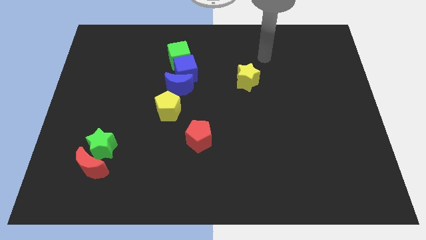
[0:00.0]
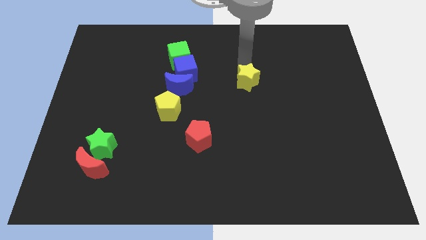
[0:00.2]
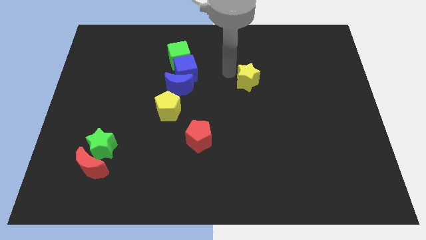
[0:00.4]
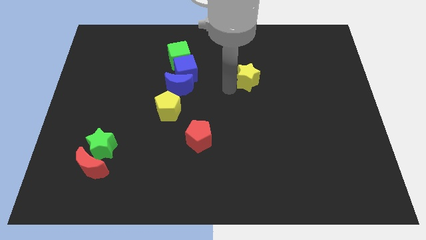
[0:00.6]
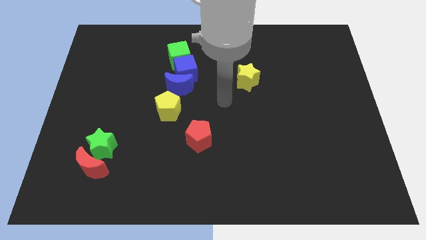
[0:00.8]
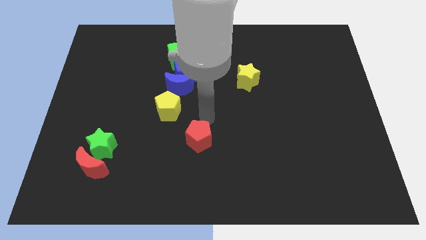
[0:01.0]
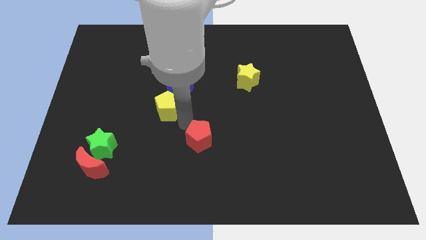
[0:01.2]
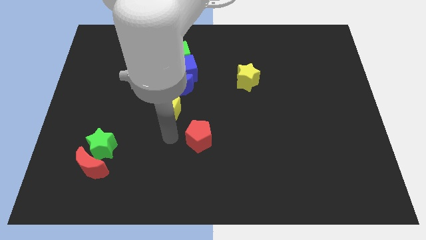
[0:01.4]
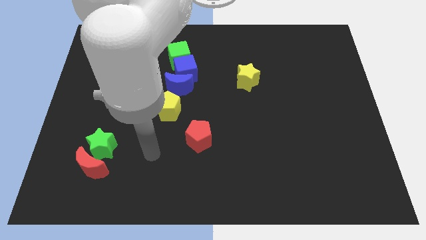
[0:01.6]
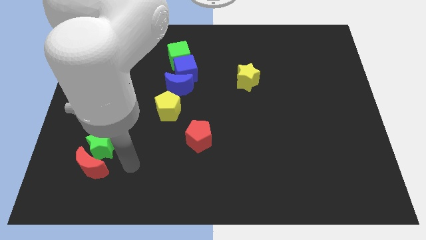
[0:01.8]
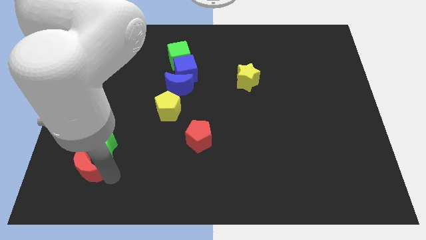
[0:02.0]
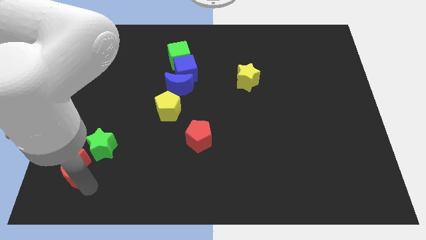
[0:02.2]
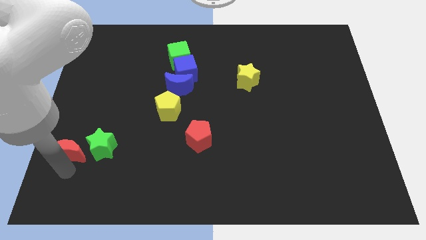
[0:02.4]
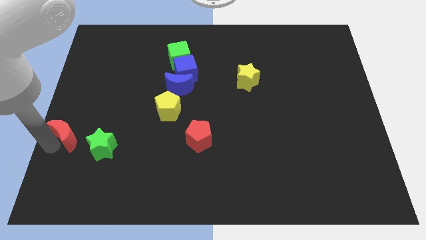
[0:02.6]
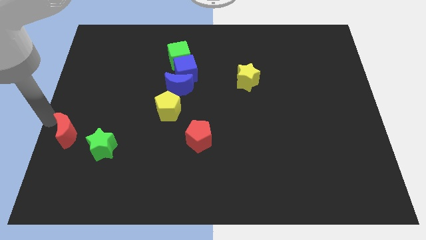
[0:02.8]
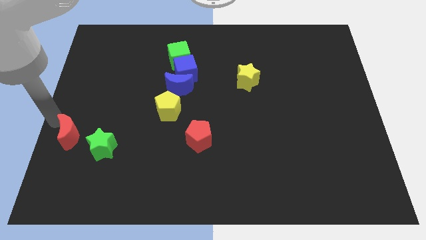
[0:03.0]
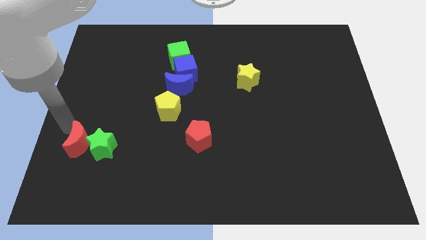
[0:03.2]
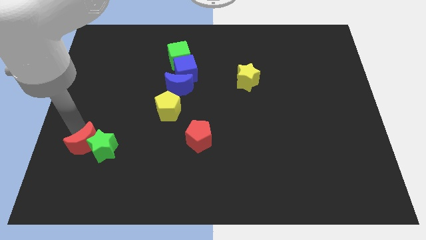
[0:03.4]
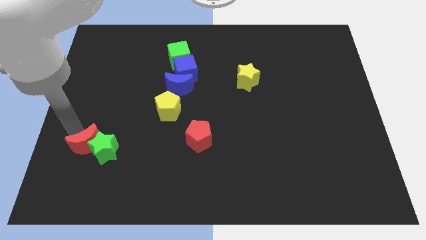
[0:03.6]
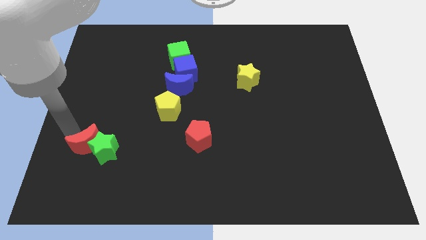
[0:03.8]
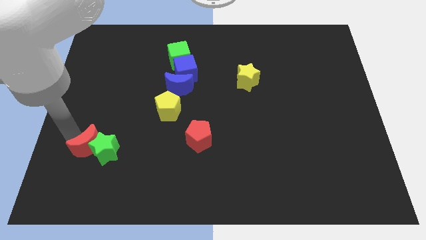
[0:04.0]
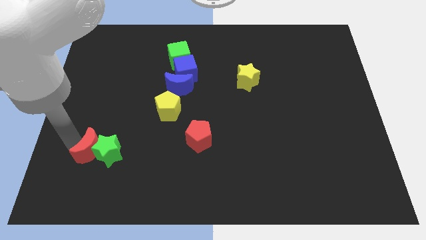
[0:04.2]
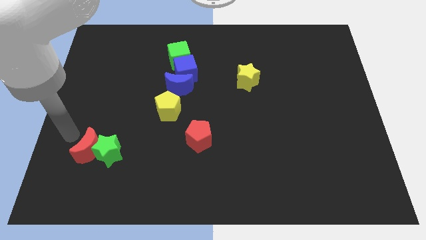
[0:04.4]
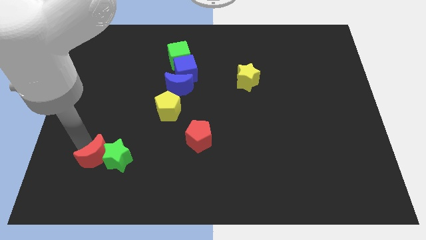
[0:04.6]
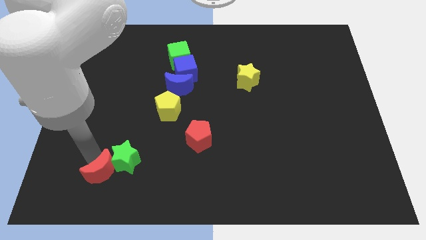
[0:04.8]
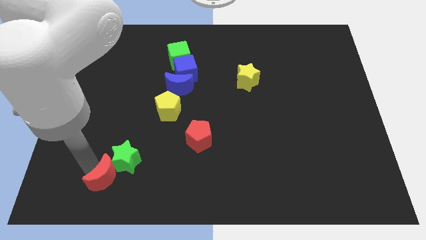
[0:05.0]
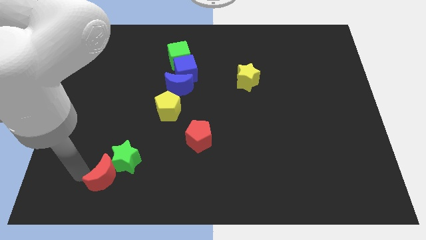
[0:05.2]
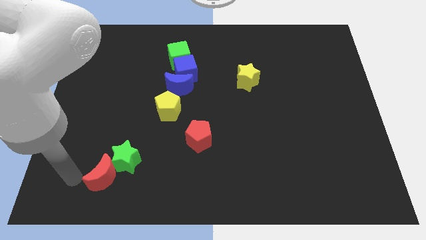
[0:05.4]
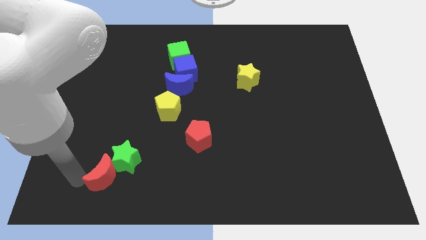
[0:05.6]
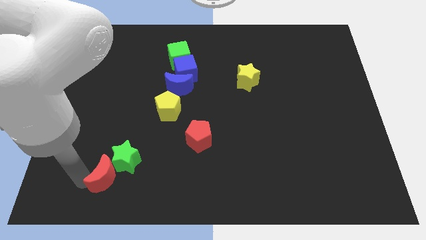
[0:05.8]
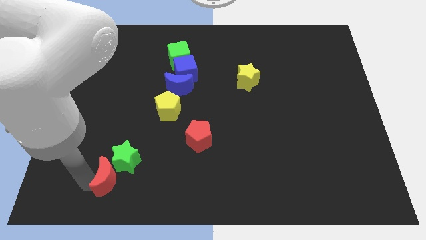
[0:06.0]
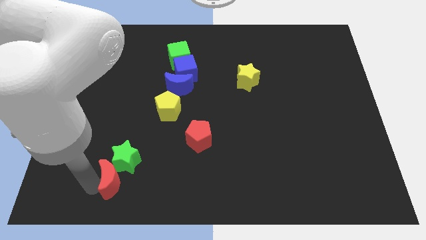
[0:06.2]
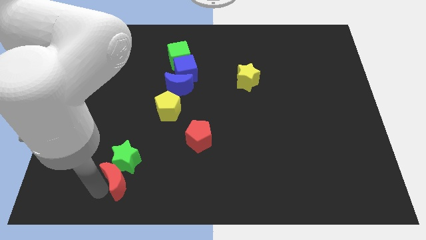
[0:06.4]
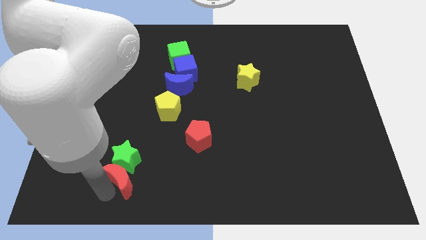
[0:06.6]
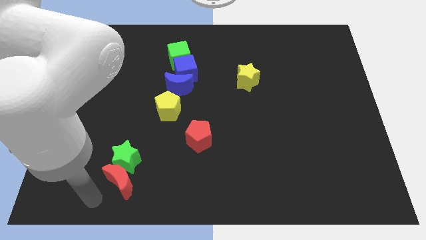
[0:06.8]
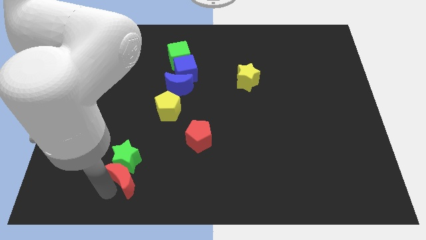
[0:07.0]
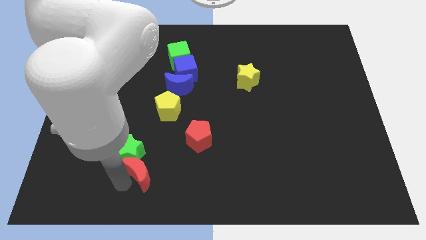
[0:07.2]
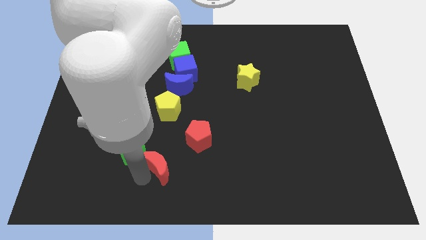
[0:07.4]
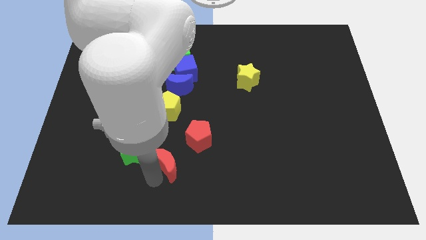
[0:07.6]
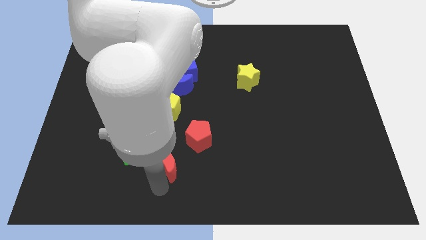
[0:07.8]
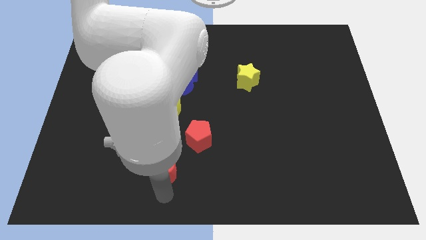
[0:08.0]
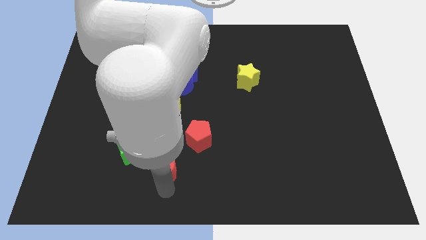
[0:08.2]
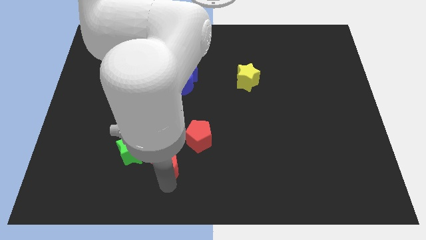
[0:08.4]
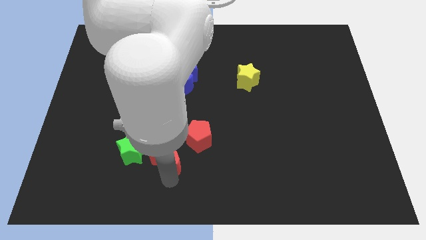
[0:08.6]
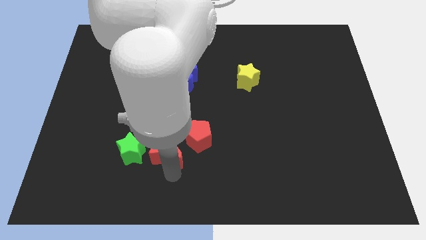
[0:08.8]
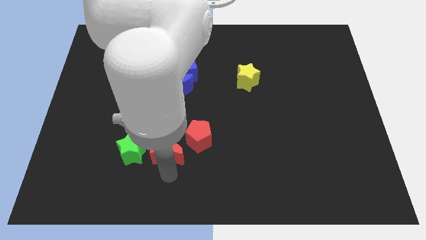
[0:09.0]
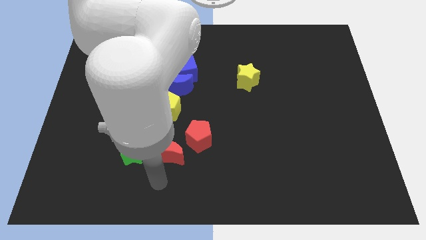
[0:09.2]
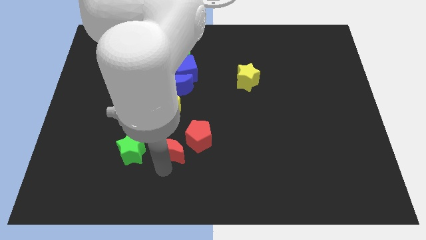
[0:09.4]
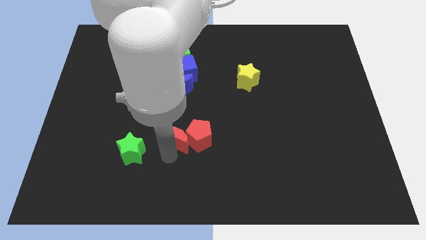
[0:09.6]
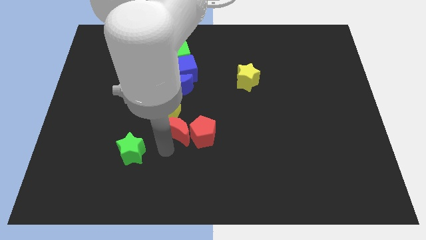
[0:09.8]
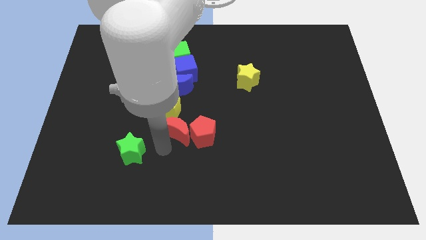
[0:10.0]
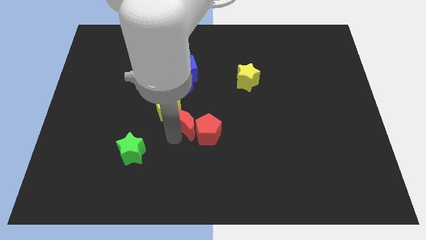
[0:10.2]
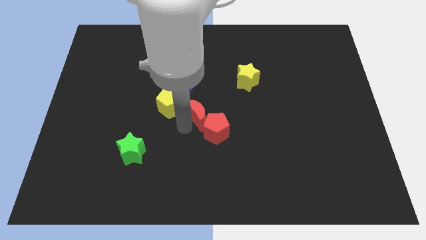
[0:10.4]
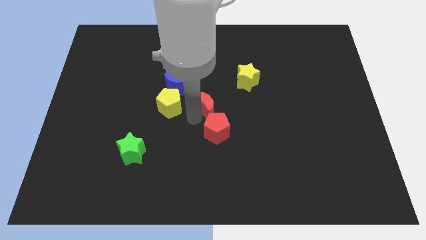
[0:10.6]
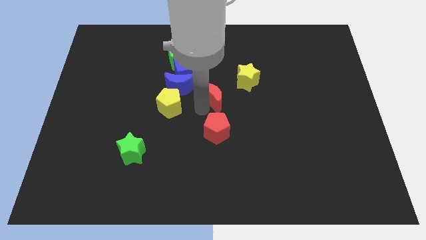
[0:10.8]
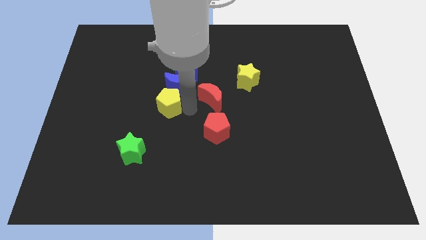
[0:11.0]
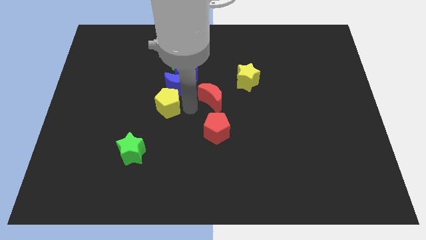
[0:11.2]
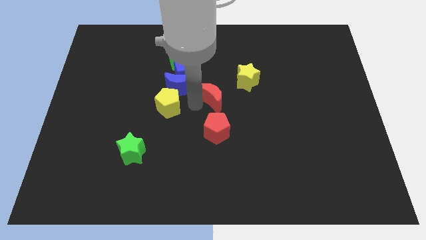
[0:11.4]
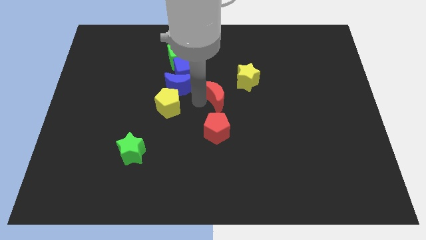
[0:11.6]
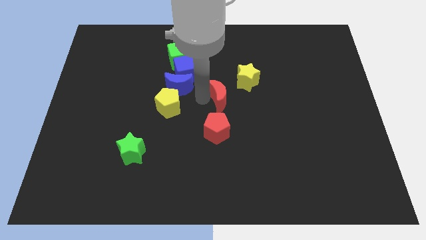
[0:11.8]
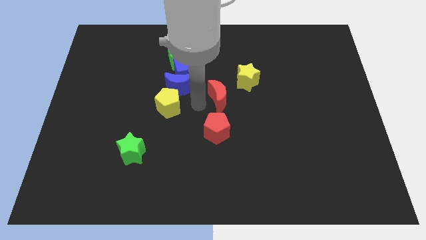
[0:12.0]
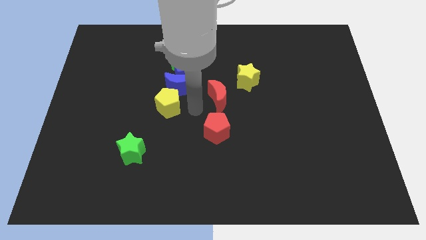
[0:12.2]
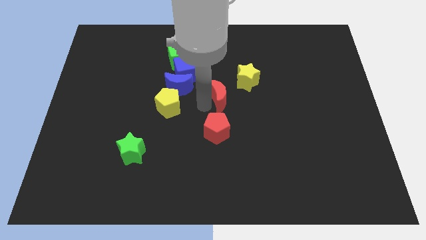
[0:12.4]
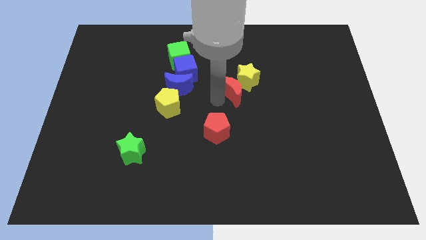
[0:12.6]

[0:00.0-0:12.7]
push the red moon to the yellow star

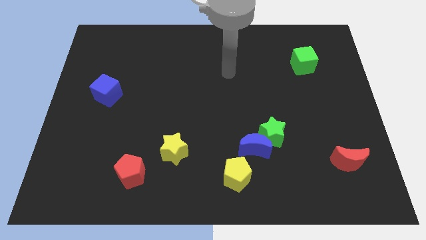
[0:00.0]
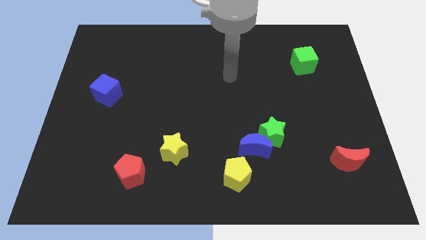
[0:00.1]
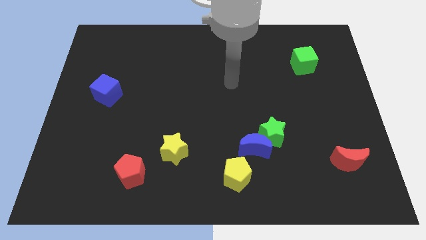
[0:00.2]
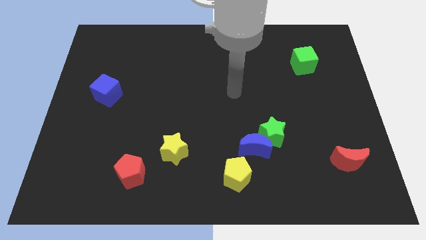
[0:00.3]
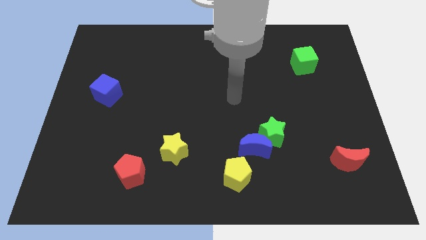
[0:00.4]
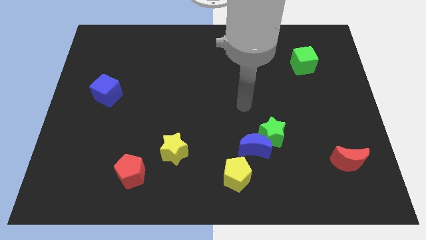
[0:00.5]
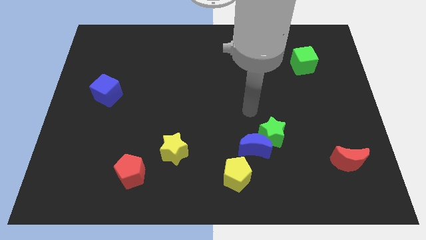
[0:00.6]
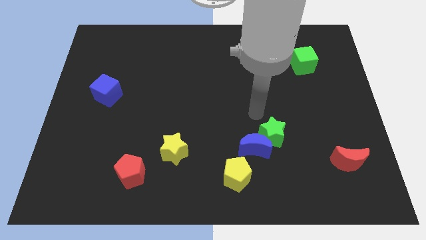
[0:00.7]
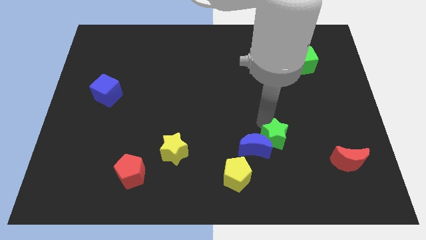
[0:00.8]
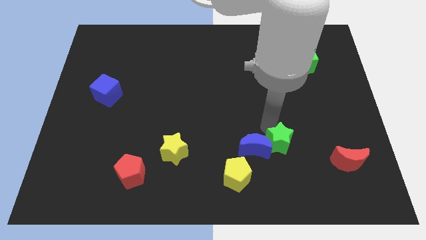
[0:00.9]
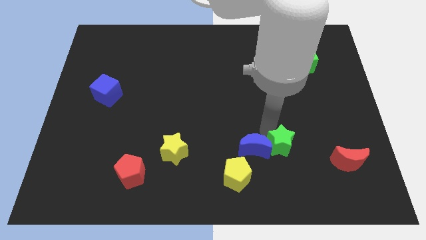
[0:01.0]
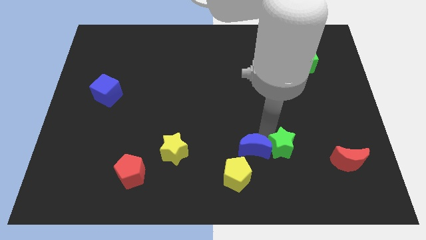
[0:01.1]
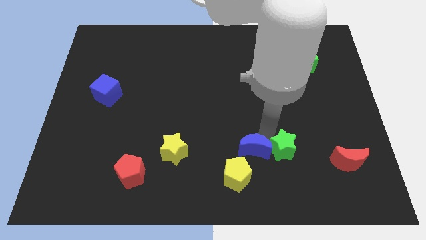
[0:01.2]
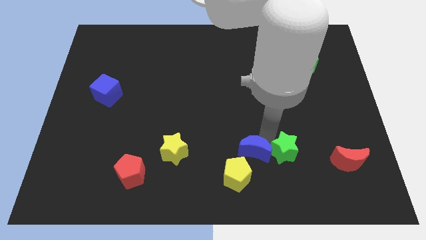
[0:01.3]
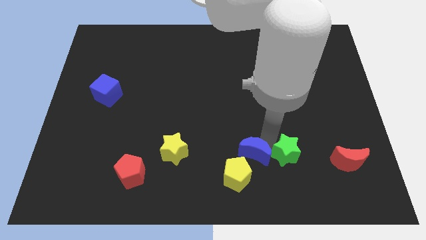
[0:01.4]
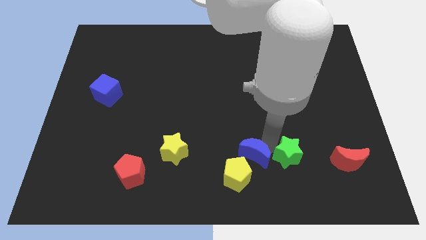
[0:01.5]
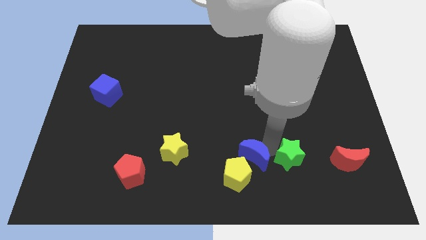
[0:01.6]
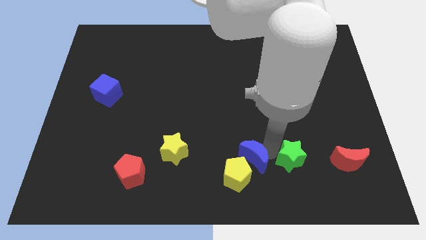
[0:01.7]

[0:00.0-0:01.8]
push the blue moon to the yellow pentagon
